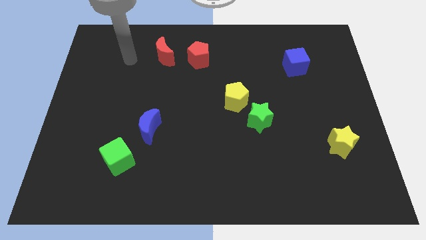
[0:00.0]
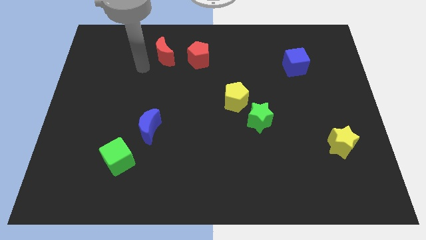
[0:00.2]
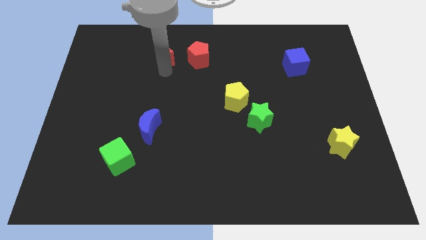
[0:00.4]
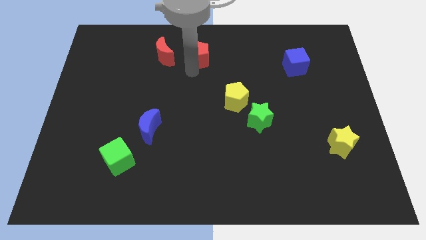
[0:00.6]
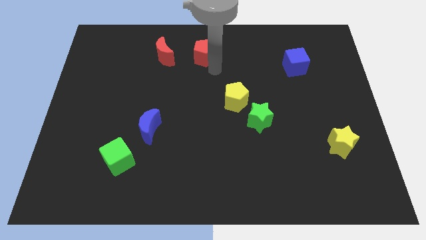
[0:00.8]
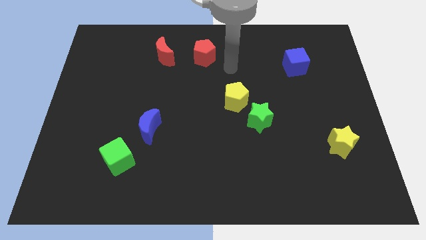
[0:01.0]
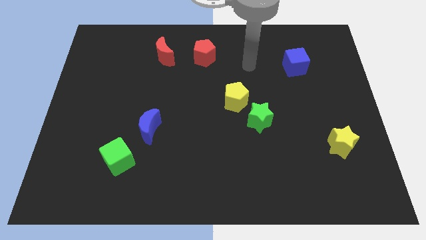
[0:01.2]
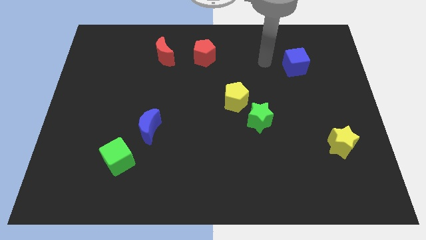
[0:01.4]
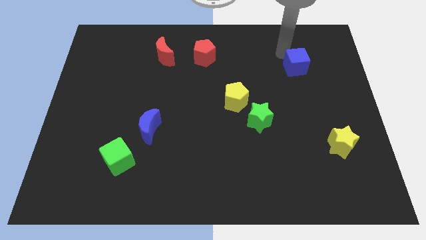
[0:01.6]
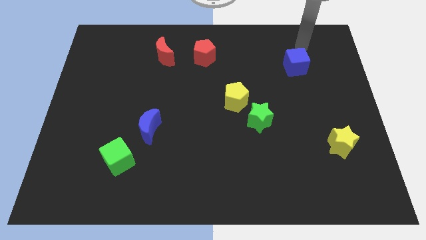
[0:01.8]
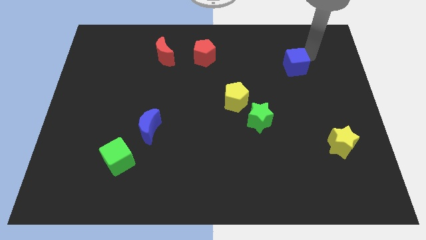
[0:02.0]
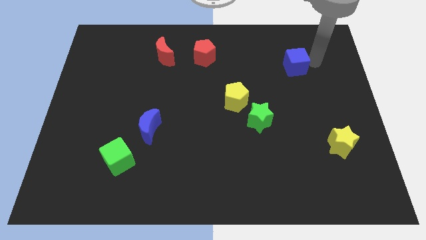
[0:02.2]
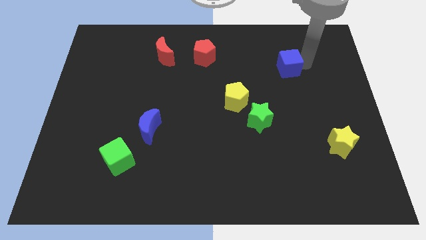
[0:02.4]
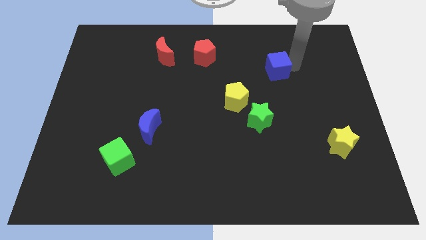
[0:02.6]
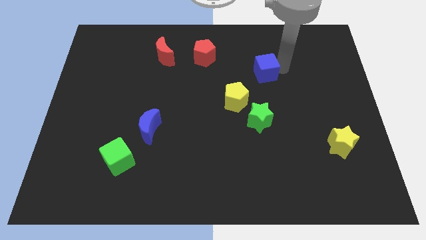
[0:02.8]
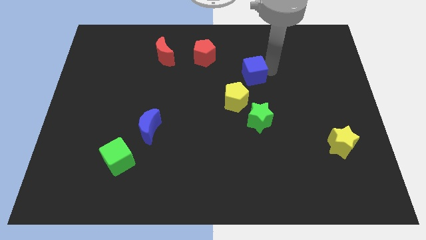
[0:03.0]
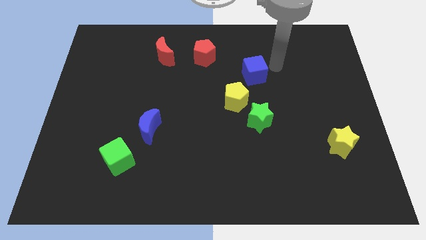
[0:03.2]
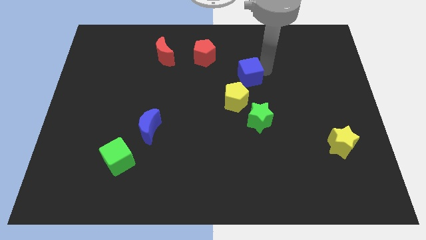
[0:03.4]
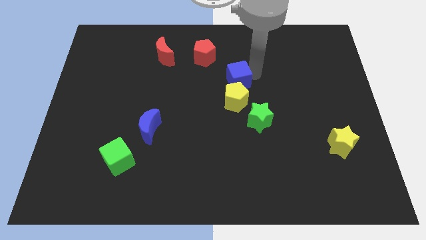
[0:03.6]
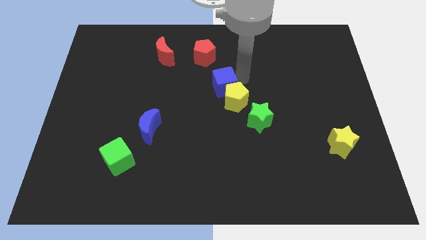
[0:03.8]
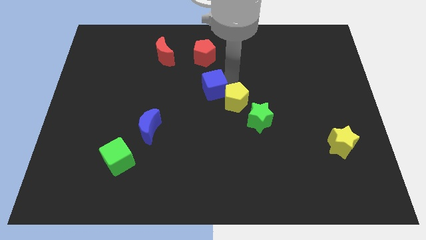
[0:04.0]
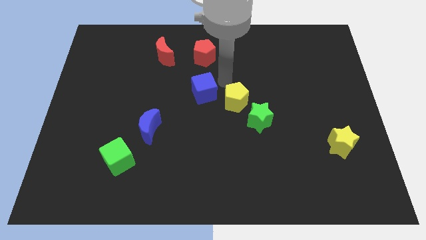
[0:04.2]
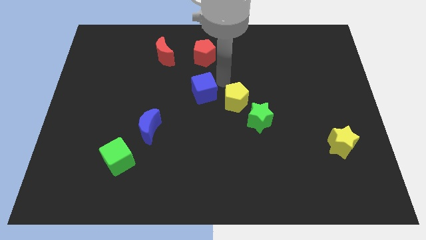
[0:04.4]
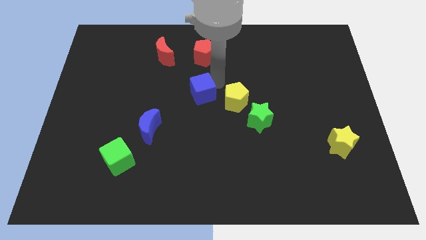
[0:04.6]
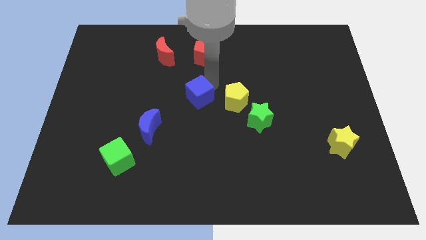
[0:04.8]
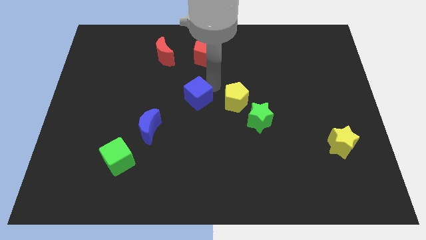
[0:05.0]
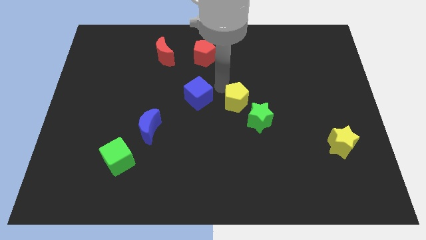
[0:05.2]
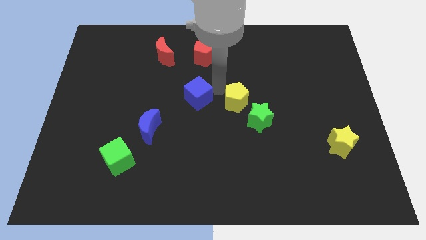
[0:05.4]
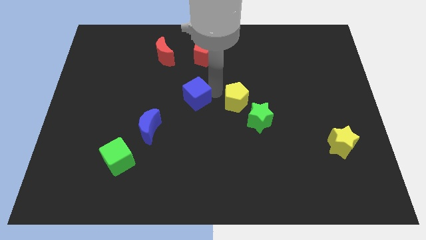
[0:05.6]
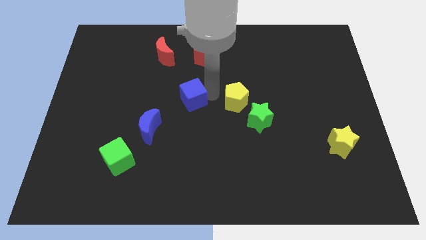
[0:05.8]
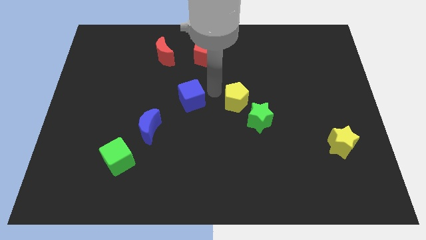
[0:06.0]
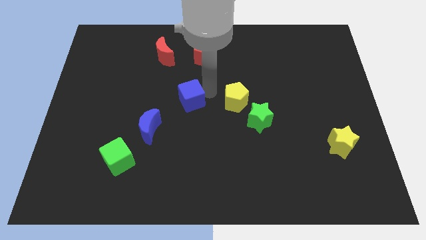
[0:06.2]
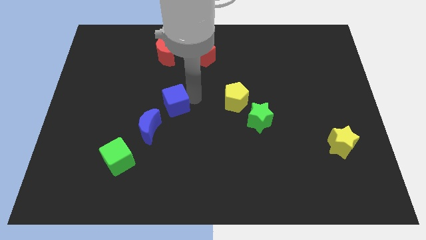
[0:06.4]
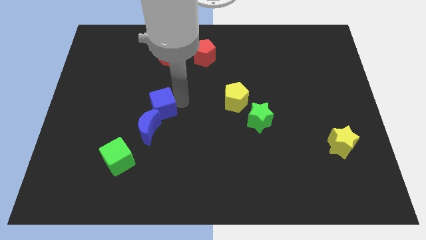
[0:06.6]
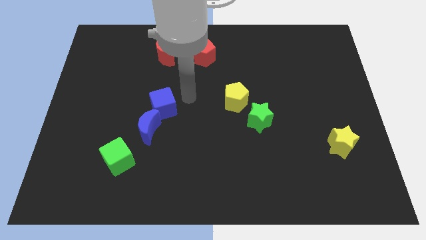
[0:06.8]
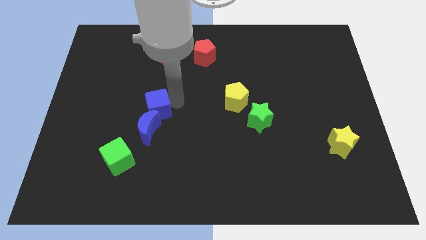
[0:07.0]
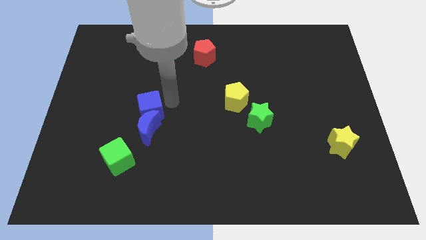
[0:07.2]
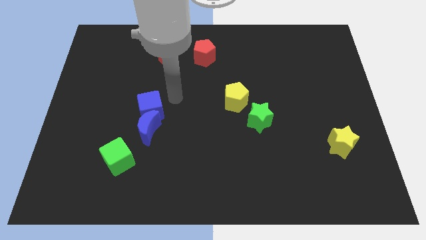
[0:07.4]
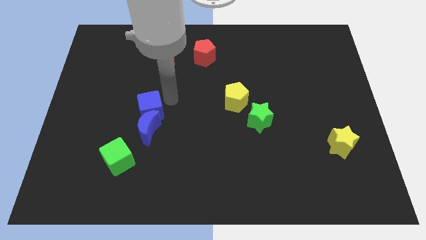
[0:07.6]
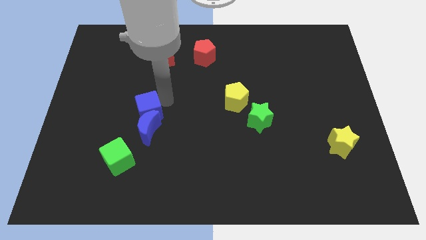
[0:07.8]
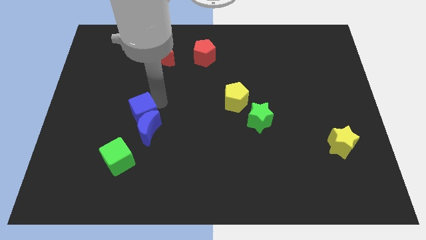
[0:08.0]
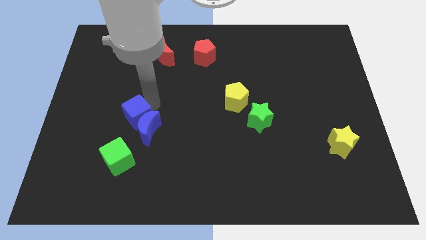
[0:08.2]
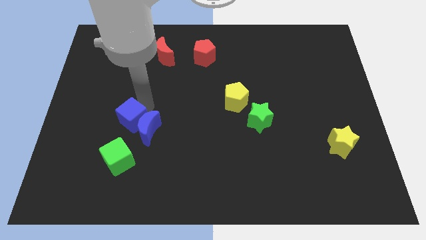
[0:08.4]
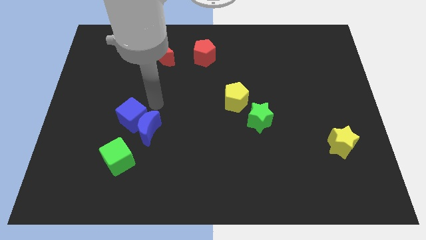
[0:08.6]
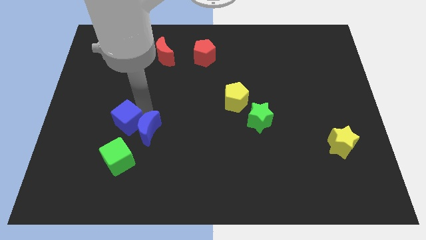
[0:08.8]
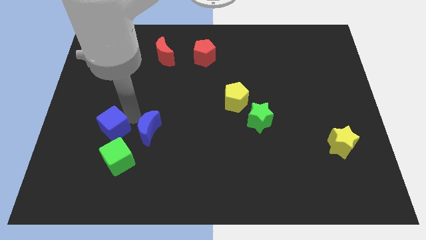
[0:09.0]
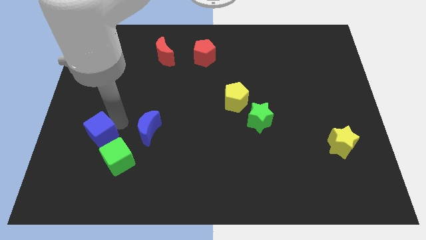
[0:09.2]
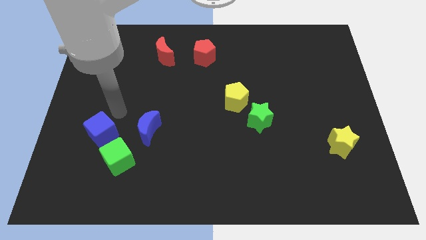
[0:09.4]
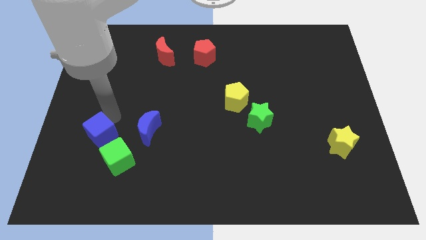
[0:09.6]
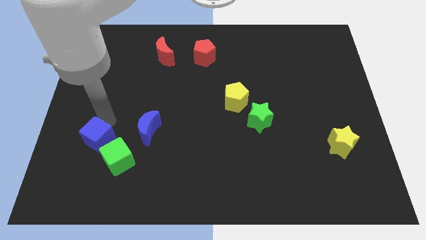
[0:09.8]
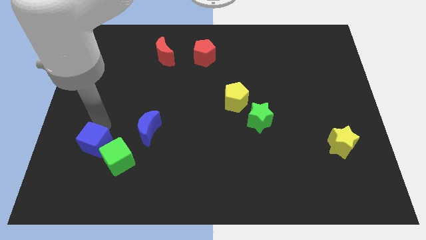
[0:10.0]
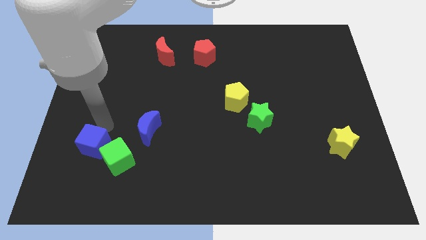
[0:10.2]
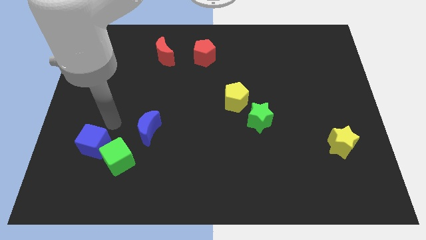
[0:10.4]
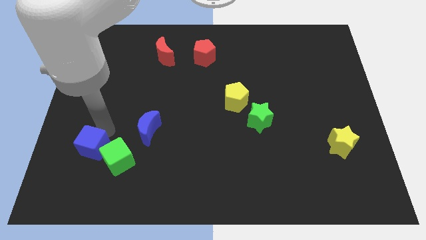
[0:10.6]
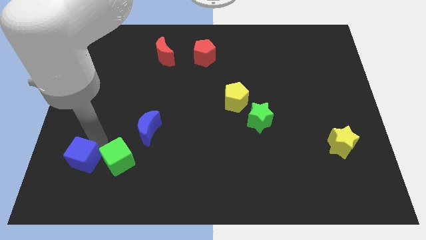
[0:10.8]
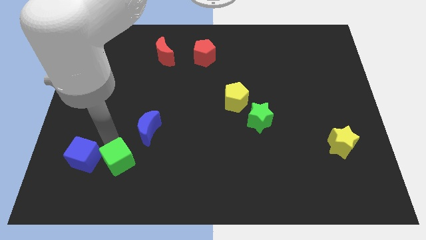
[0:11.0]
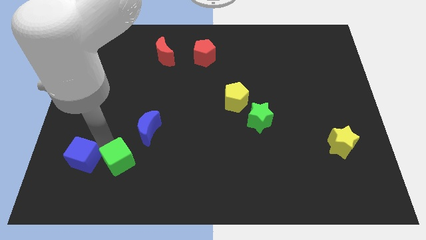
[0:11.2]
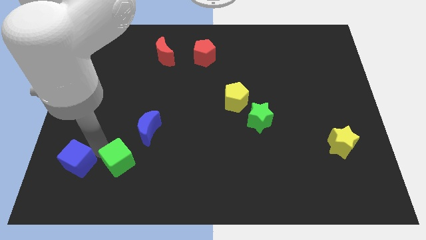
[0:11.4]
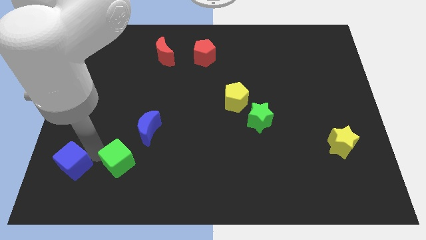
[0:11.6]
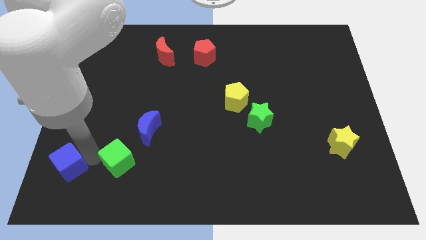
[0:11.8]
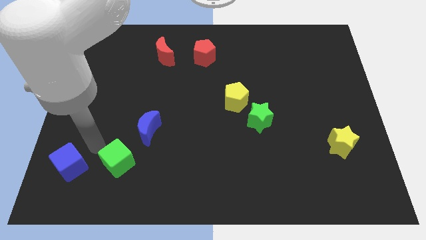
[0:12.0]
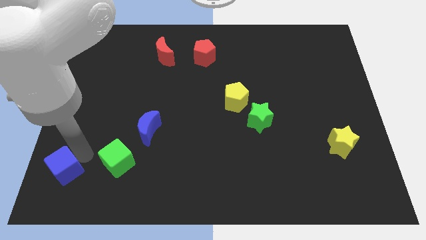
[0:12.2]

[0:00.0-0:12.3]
put the blue cube to the bottom left of the board

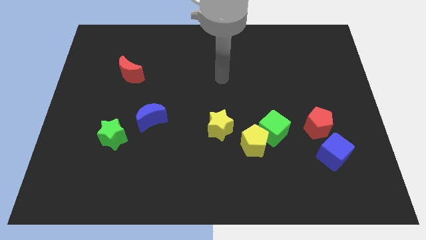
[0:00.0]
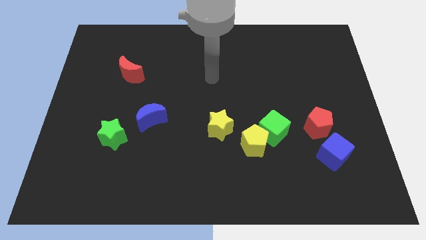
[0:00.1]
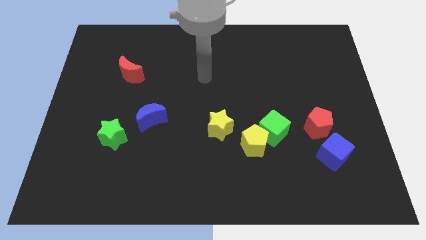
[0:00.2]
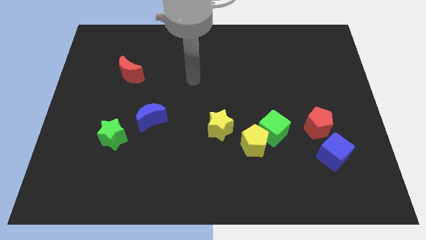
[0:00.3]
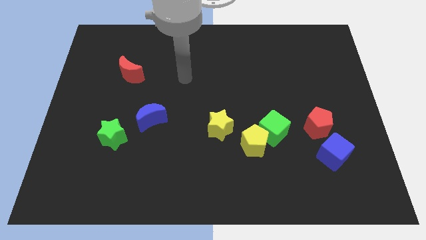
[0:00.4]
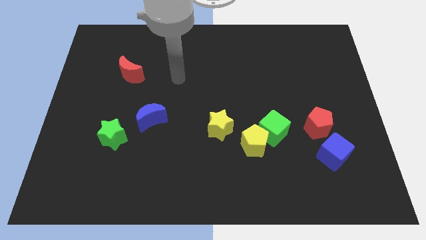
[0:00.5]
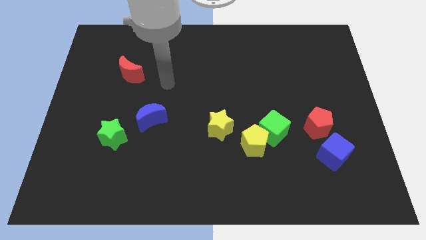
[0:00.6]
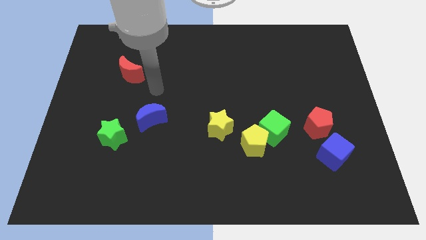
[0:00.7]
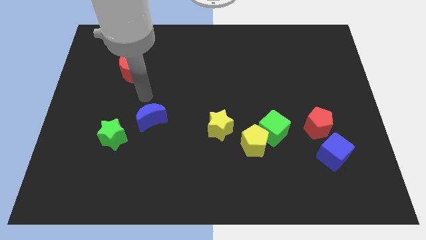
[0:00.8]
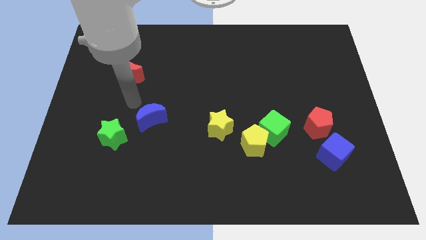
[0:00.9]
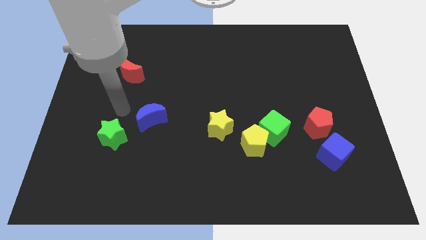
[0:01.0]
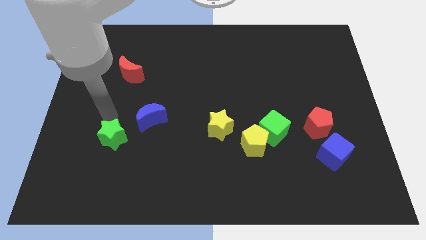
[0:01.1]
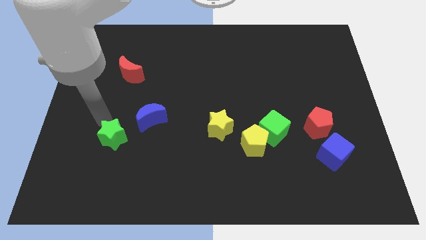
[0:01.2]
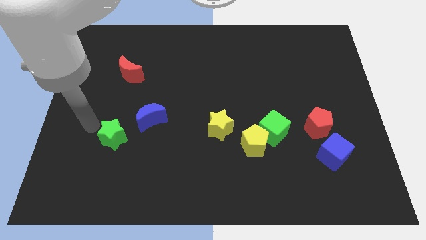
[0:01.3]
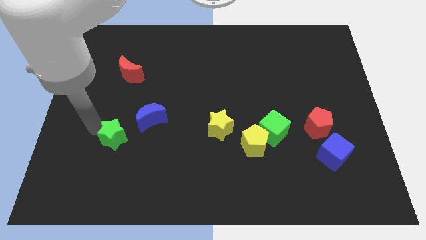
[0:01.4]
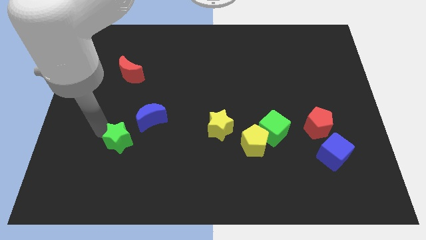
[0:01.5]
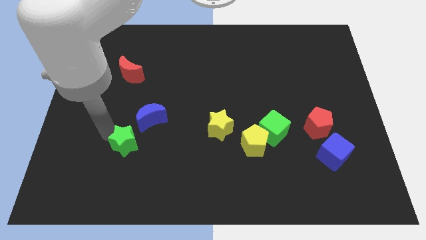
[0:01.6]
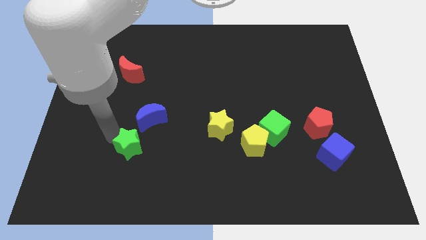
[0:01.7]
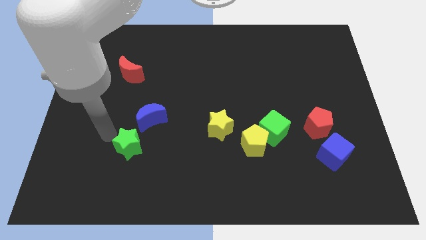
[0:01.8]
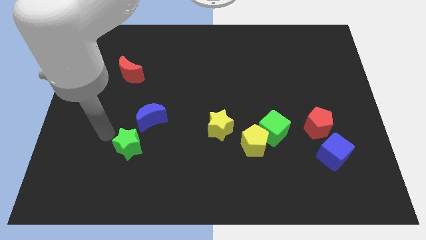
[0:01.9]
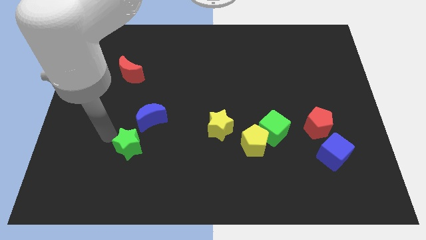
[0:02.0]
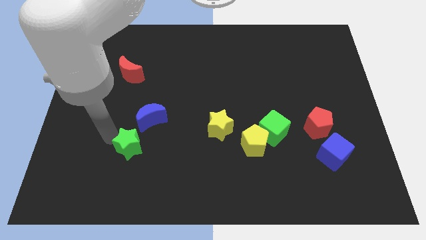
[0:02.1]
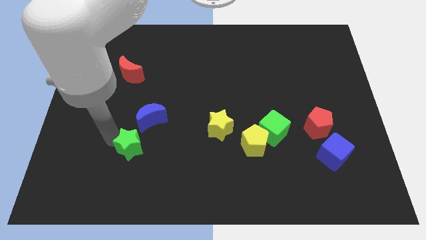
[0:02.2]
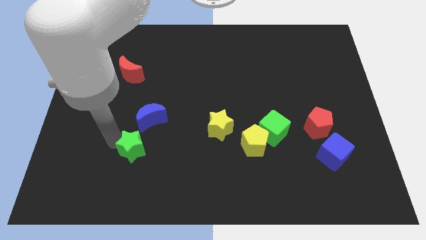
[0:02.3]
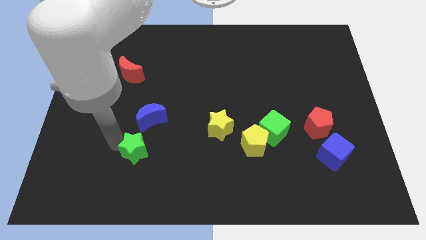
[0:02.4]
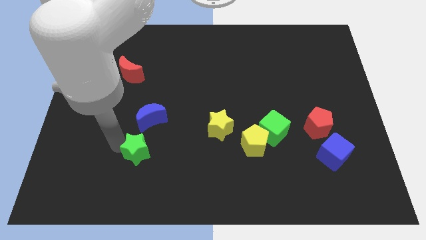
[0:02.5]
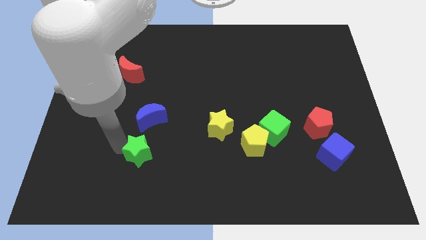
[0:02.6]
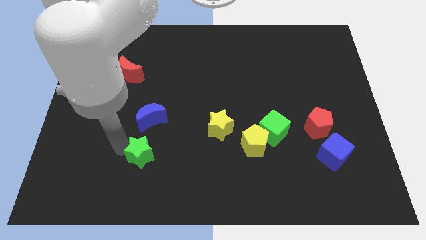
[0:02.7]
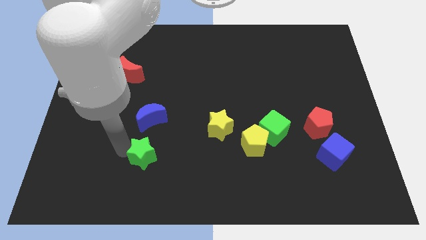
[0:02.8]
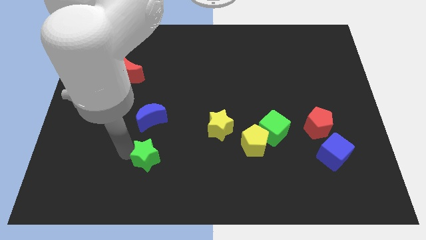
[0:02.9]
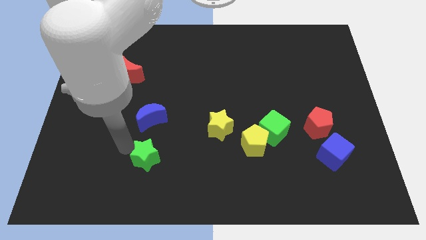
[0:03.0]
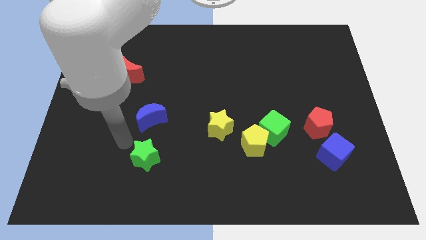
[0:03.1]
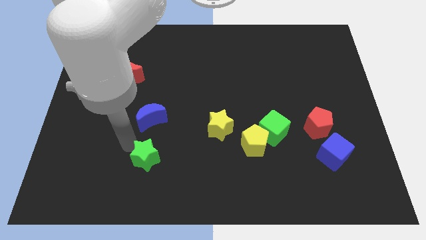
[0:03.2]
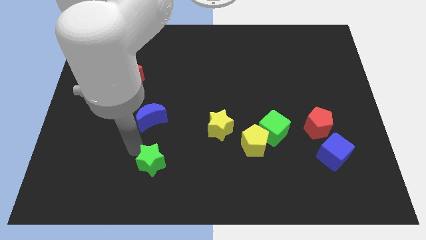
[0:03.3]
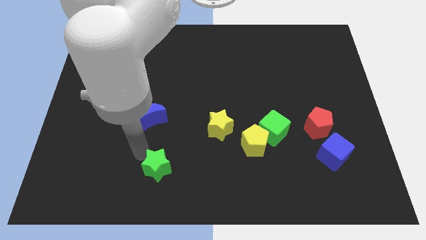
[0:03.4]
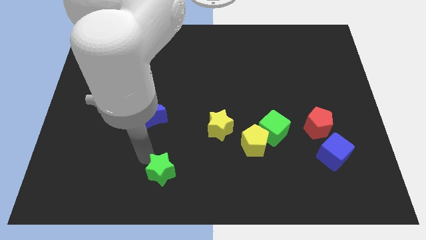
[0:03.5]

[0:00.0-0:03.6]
push the green star to the bottom side
